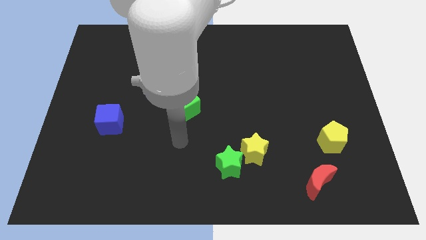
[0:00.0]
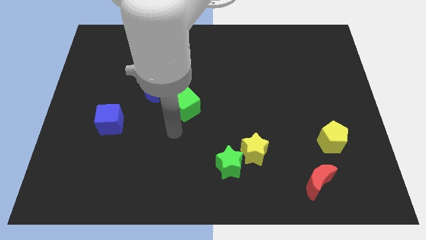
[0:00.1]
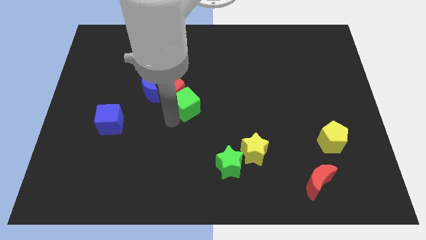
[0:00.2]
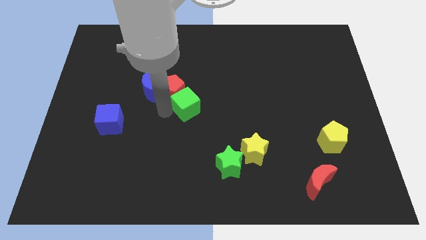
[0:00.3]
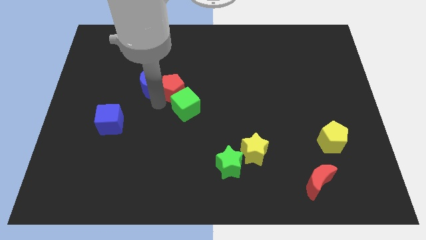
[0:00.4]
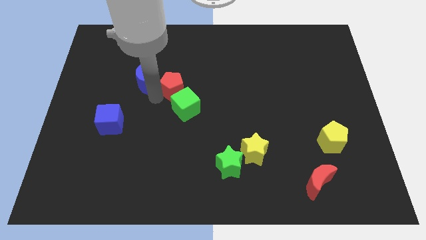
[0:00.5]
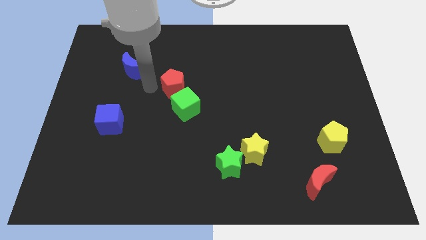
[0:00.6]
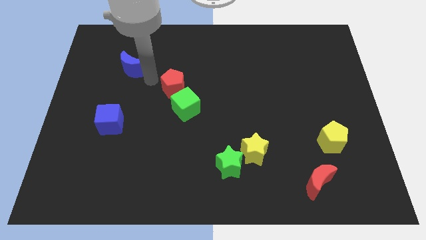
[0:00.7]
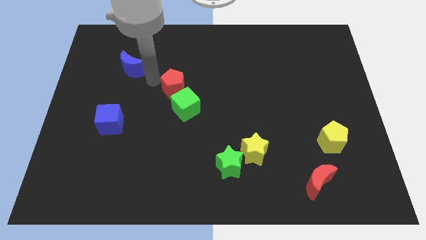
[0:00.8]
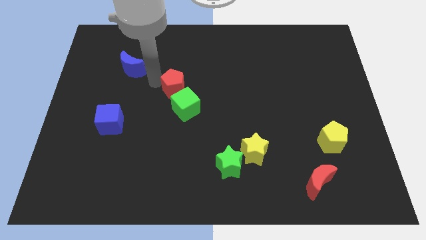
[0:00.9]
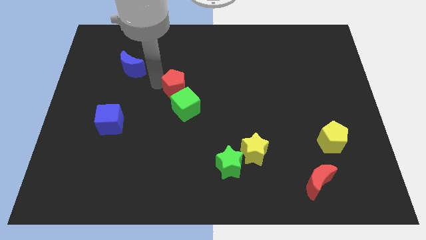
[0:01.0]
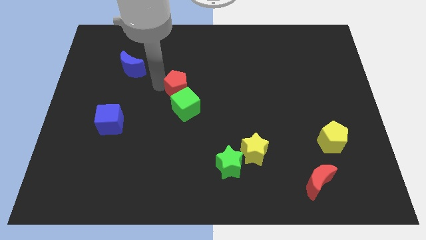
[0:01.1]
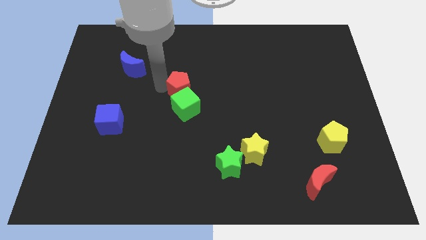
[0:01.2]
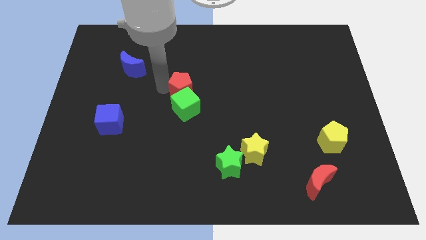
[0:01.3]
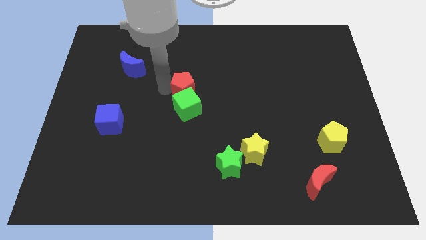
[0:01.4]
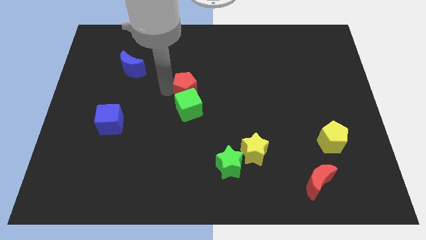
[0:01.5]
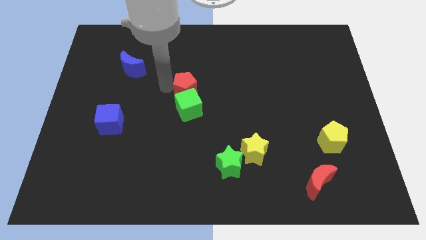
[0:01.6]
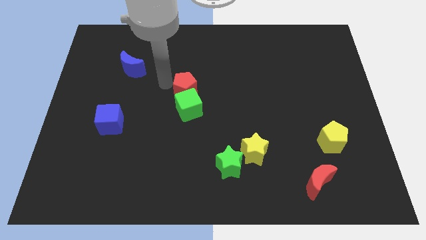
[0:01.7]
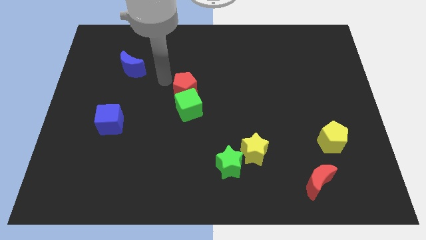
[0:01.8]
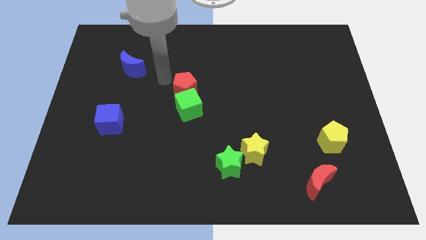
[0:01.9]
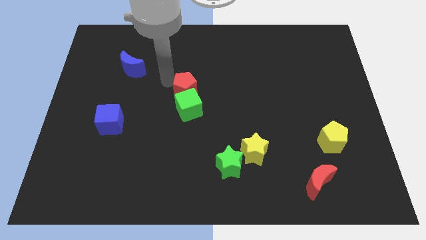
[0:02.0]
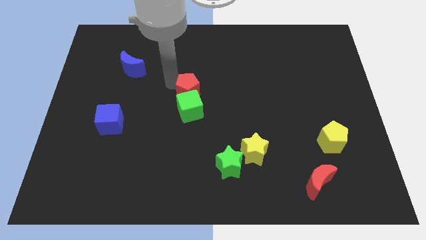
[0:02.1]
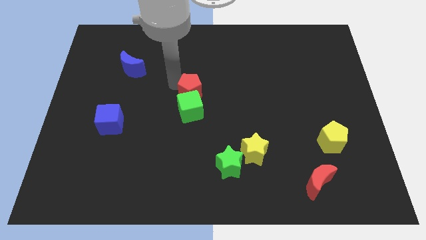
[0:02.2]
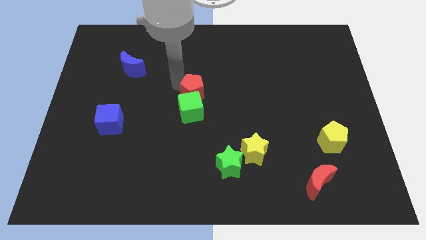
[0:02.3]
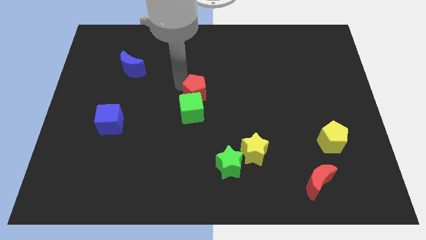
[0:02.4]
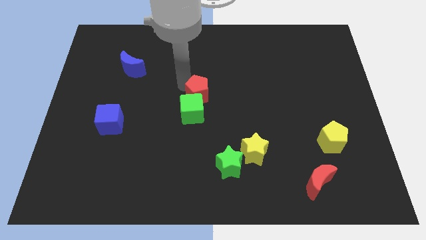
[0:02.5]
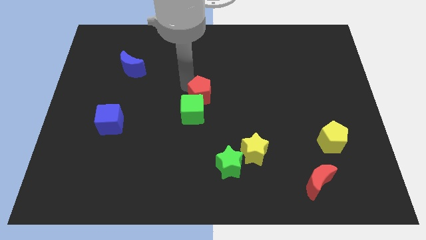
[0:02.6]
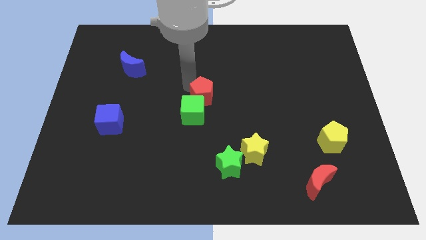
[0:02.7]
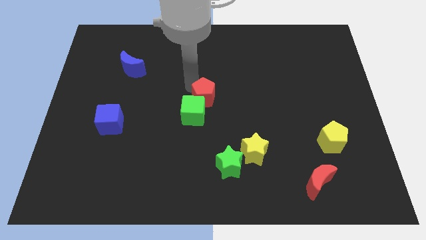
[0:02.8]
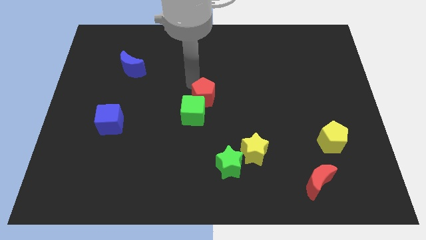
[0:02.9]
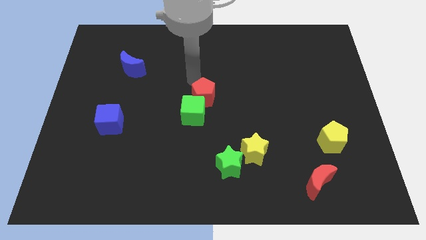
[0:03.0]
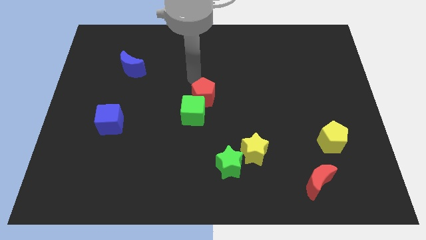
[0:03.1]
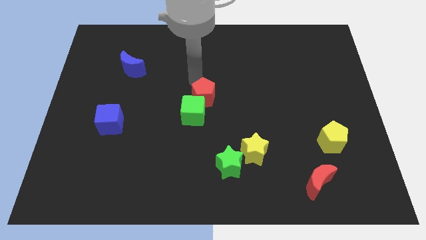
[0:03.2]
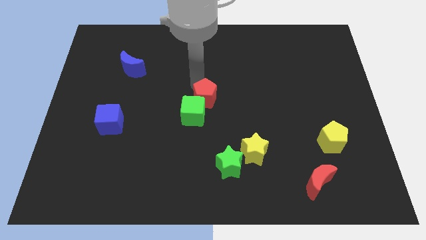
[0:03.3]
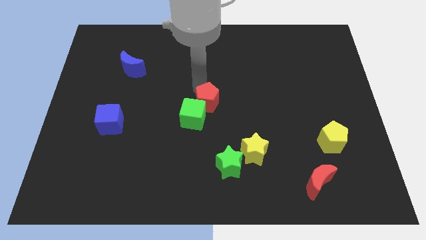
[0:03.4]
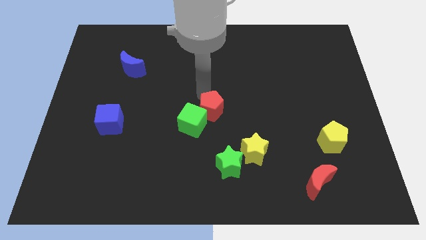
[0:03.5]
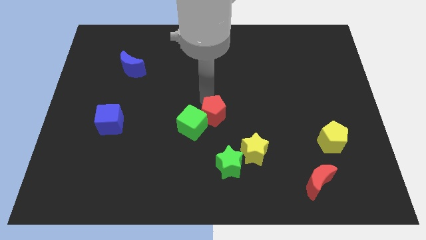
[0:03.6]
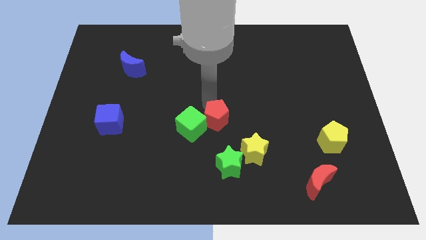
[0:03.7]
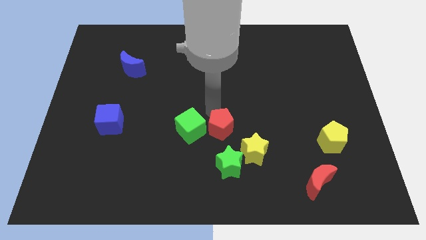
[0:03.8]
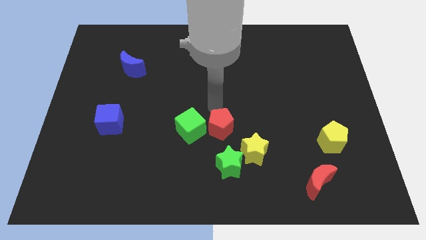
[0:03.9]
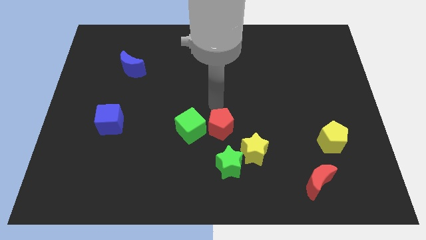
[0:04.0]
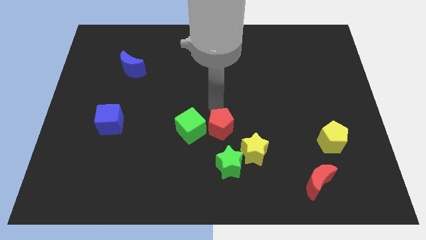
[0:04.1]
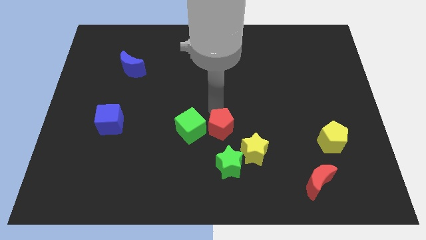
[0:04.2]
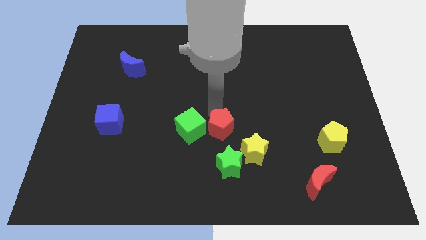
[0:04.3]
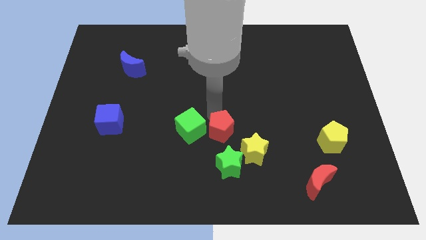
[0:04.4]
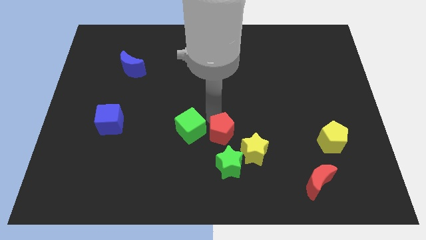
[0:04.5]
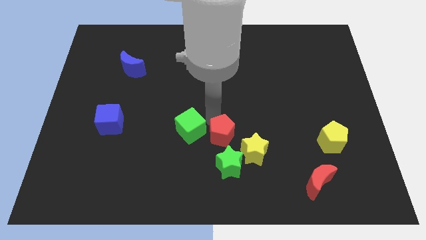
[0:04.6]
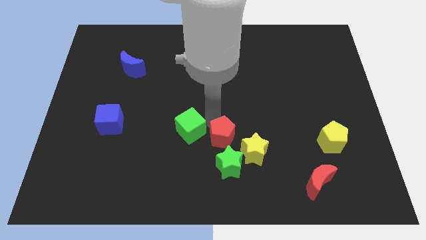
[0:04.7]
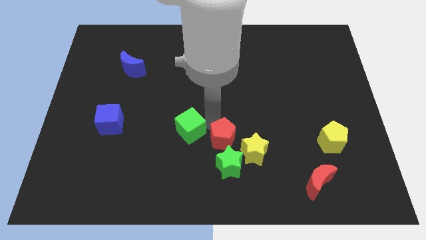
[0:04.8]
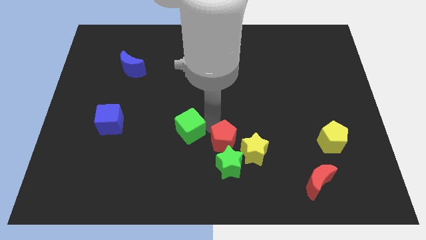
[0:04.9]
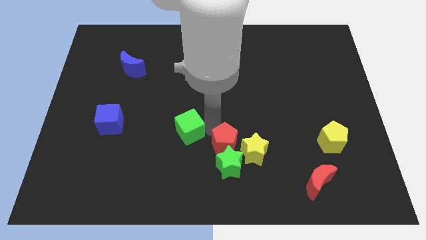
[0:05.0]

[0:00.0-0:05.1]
push the red pentagon to the green star

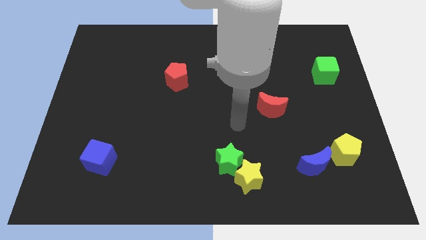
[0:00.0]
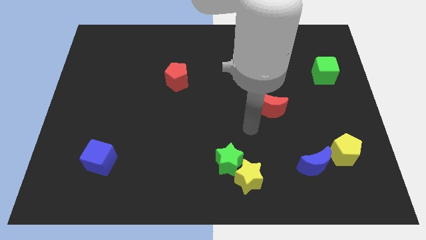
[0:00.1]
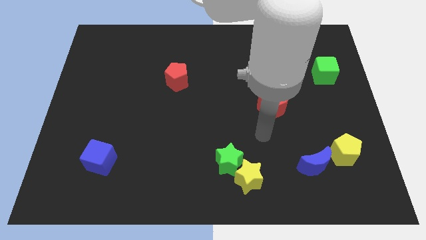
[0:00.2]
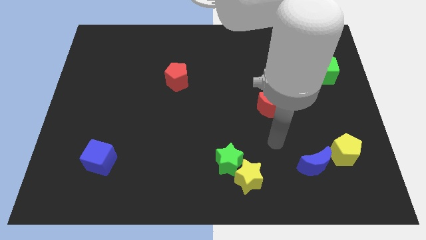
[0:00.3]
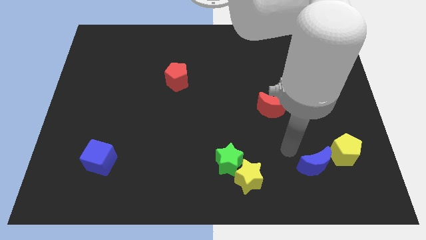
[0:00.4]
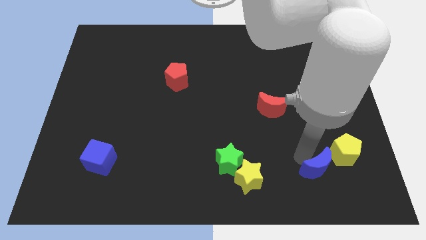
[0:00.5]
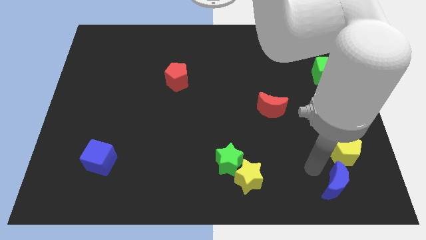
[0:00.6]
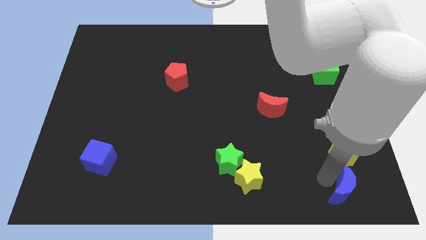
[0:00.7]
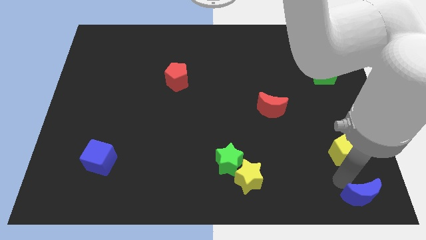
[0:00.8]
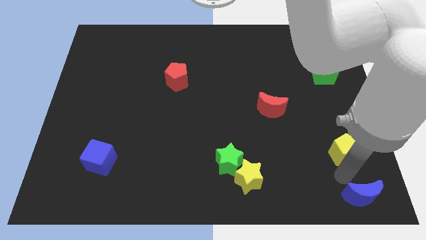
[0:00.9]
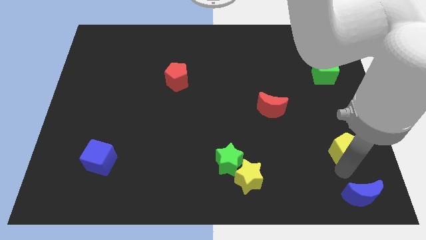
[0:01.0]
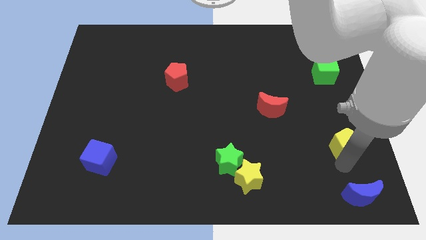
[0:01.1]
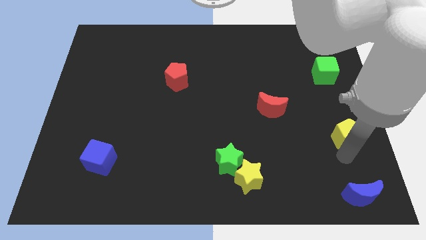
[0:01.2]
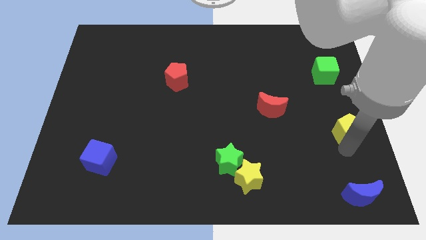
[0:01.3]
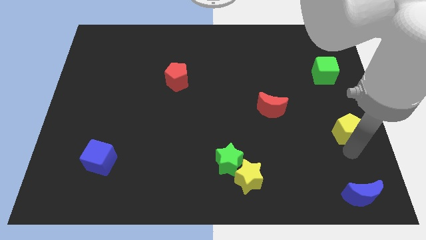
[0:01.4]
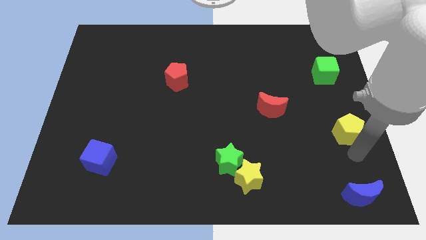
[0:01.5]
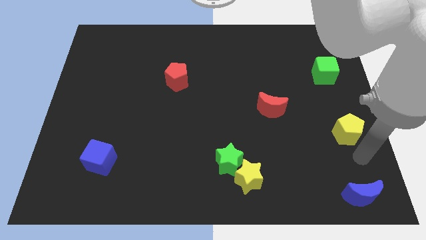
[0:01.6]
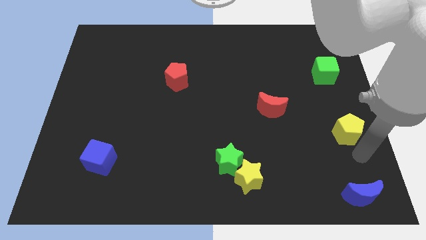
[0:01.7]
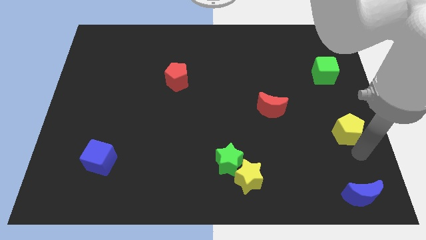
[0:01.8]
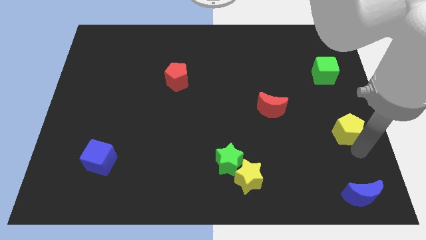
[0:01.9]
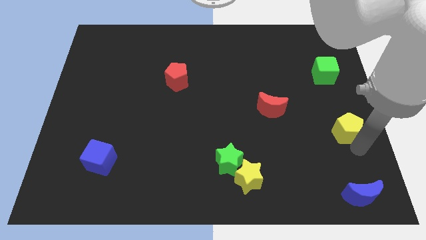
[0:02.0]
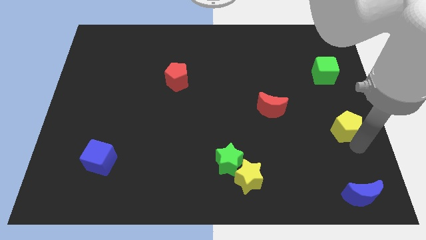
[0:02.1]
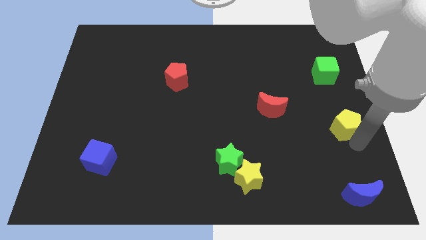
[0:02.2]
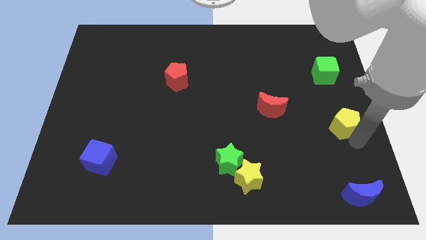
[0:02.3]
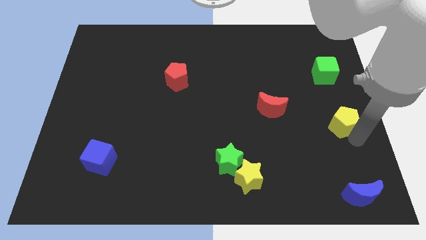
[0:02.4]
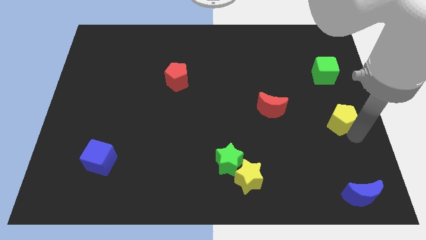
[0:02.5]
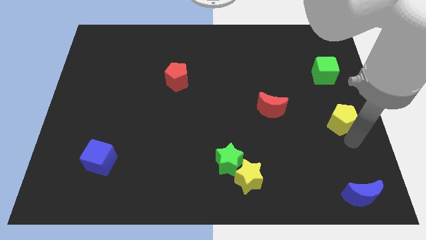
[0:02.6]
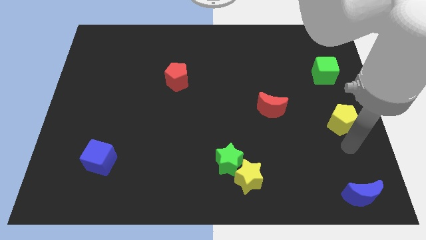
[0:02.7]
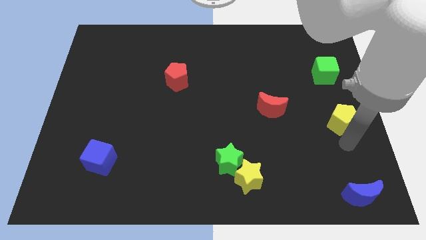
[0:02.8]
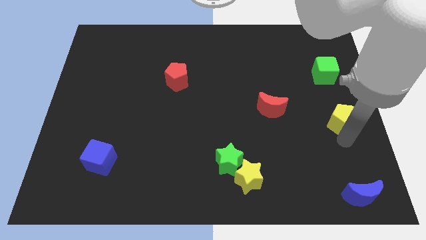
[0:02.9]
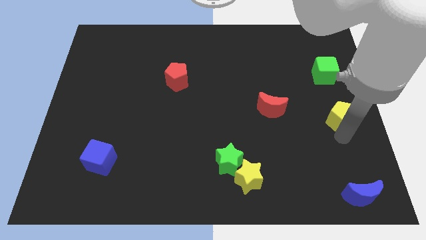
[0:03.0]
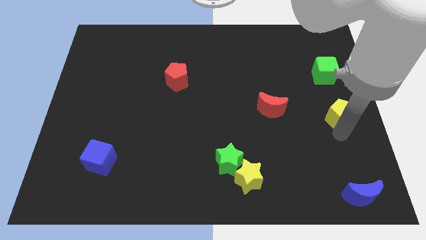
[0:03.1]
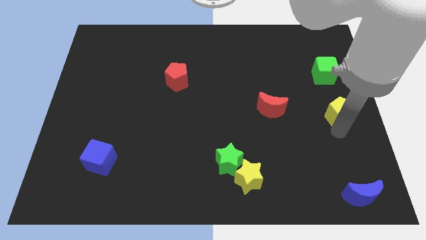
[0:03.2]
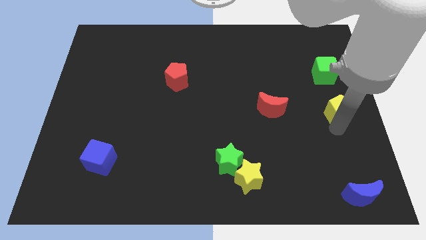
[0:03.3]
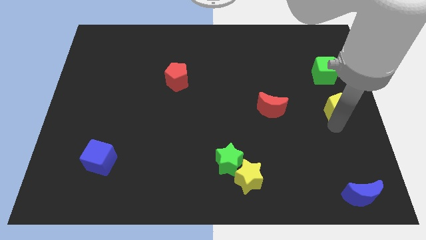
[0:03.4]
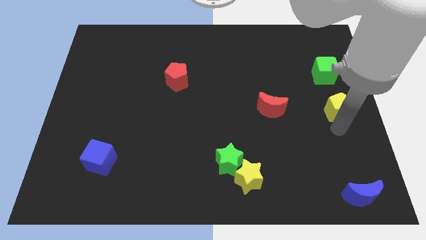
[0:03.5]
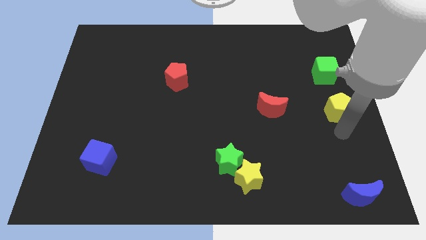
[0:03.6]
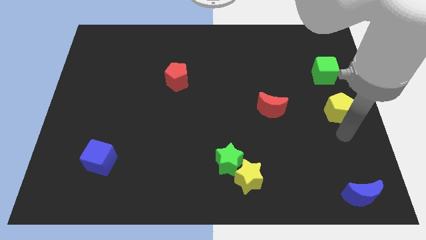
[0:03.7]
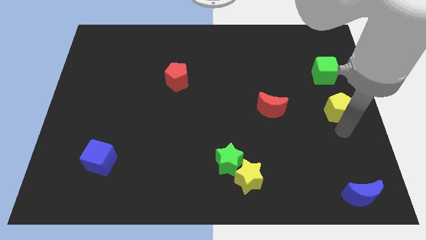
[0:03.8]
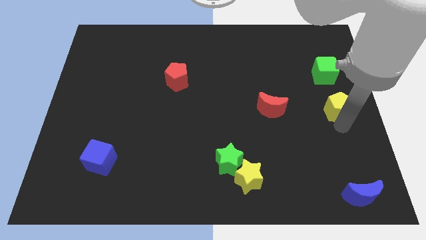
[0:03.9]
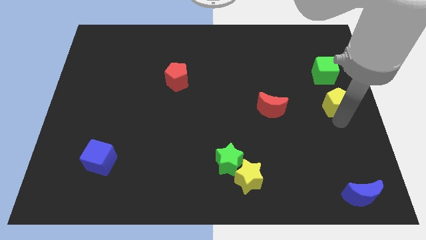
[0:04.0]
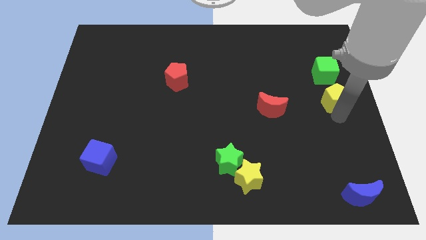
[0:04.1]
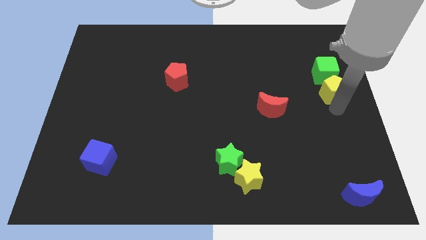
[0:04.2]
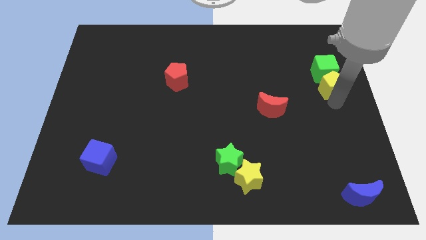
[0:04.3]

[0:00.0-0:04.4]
slide the yellow pentagon towards the green cube
